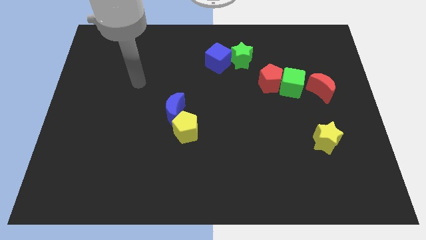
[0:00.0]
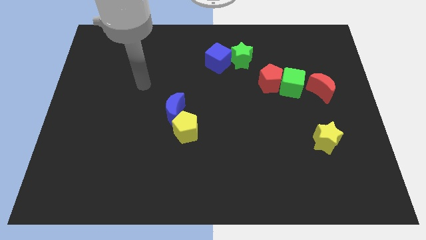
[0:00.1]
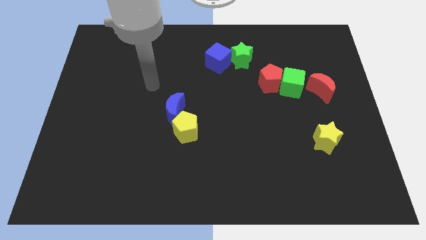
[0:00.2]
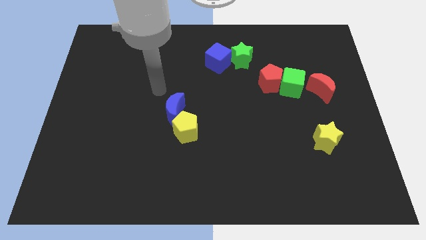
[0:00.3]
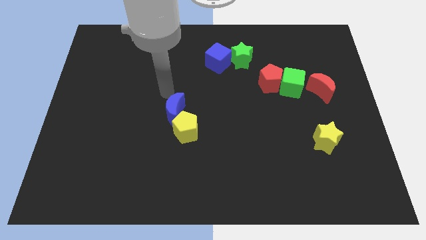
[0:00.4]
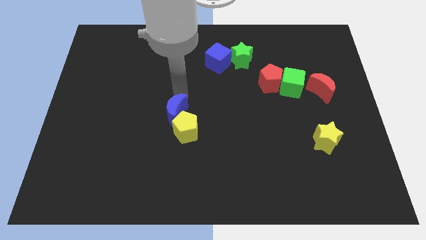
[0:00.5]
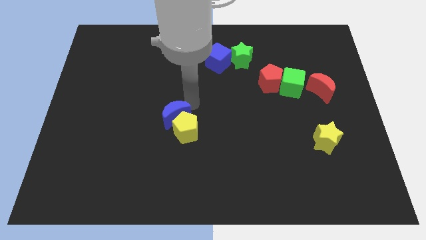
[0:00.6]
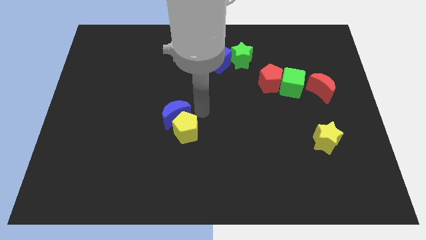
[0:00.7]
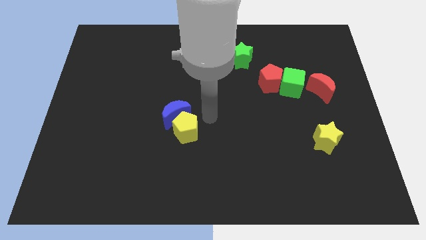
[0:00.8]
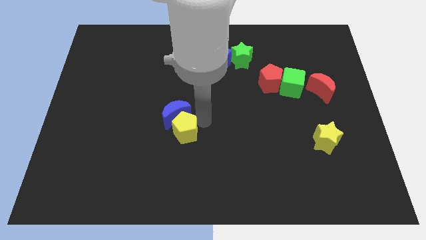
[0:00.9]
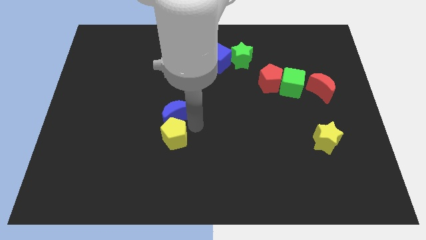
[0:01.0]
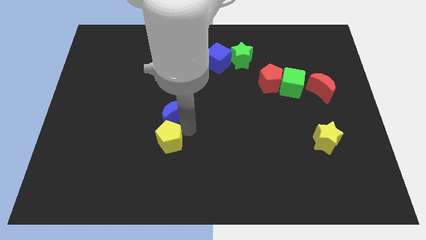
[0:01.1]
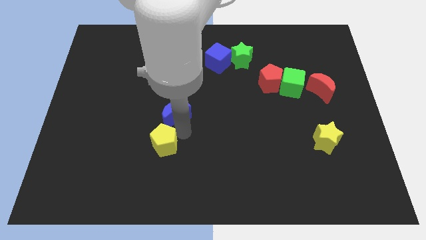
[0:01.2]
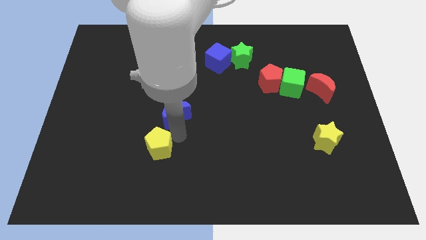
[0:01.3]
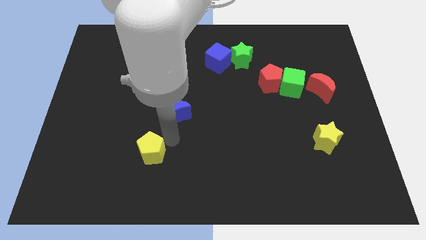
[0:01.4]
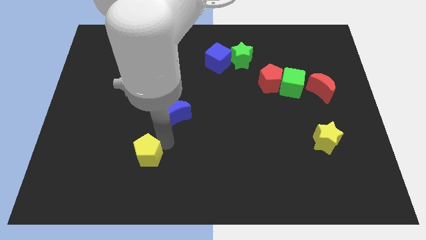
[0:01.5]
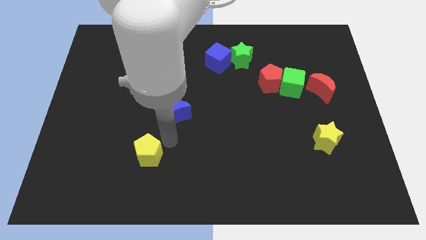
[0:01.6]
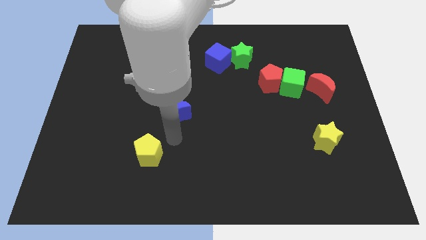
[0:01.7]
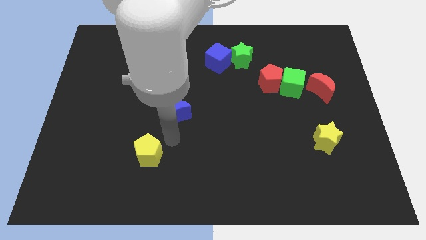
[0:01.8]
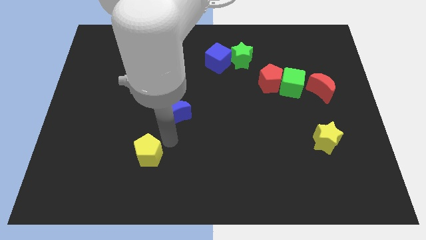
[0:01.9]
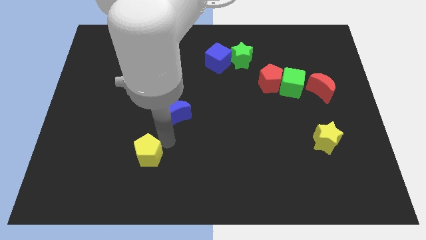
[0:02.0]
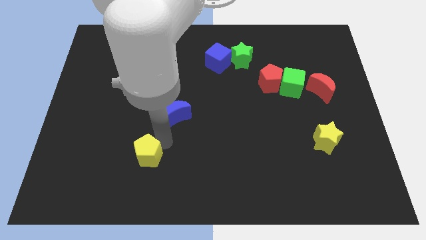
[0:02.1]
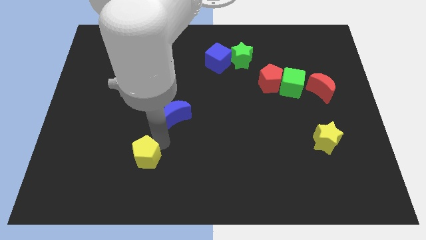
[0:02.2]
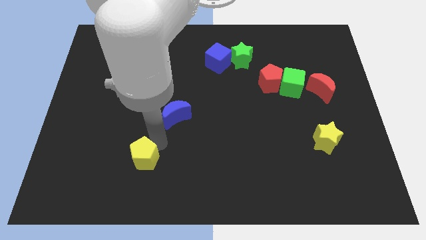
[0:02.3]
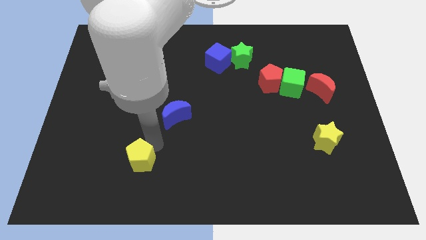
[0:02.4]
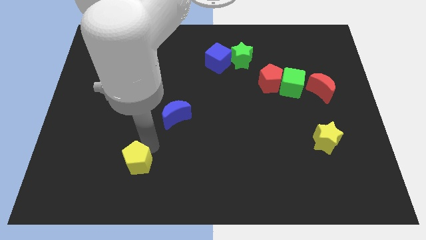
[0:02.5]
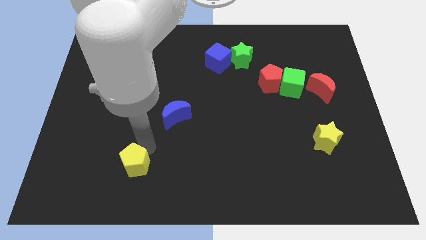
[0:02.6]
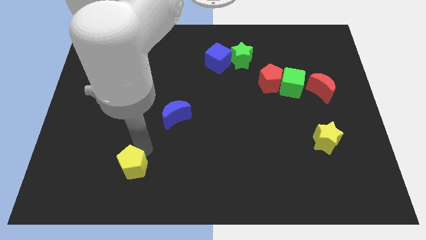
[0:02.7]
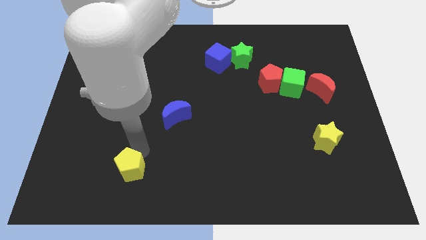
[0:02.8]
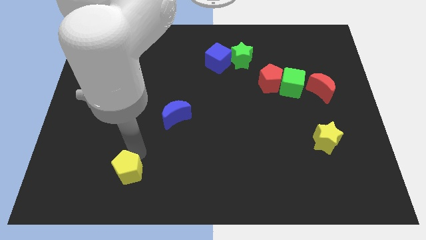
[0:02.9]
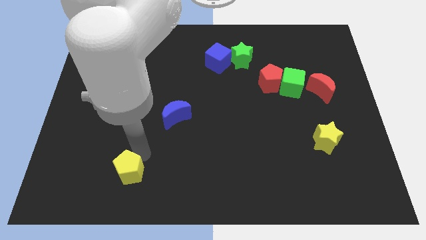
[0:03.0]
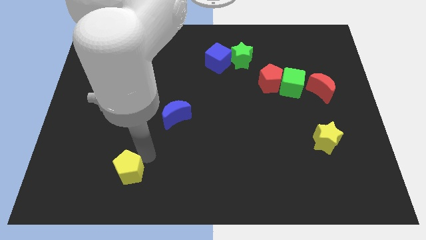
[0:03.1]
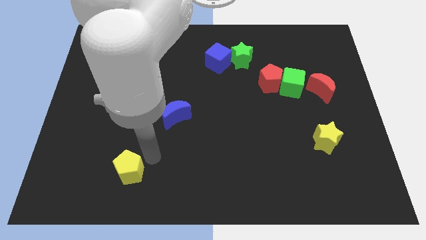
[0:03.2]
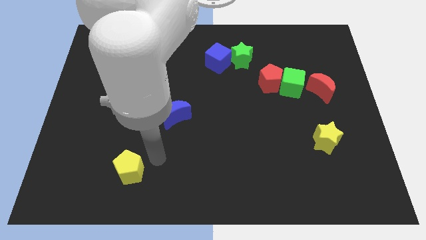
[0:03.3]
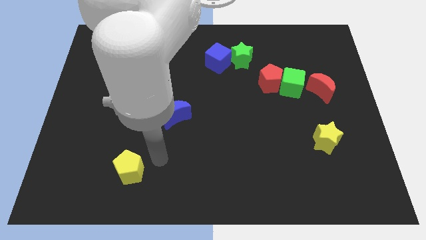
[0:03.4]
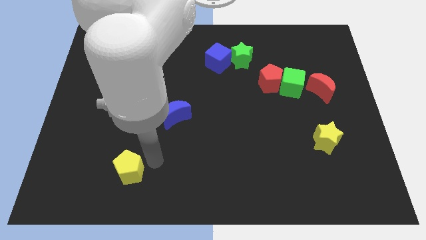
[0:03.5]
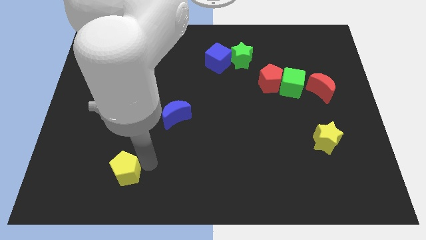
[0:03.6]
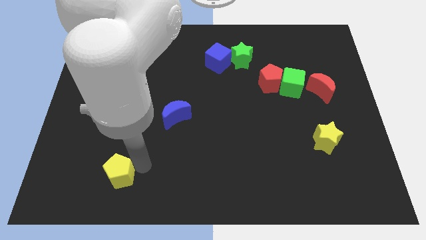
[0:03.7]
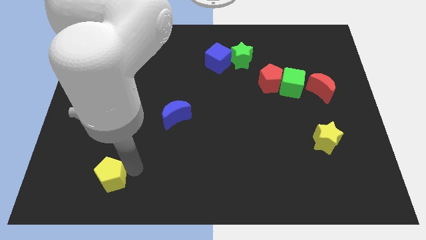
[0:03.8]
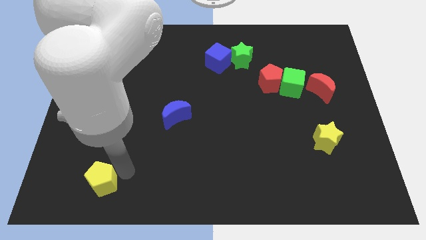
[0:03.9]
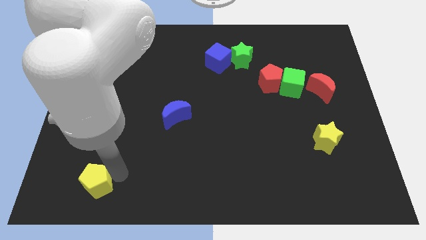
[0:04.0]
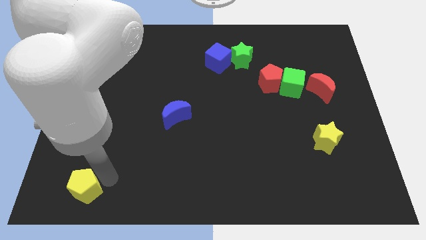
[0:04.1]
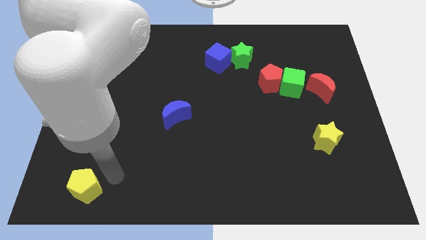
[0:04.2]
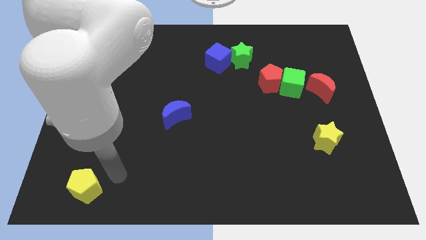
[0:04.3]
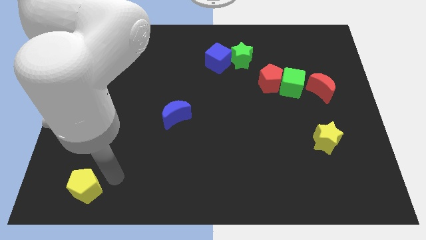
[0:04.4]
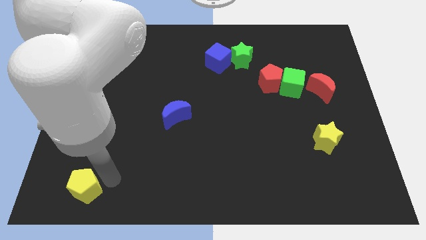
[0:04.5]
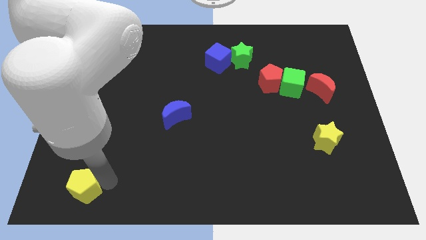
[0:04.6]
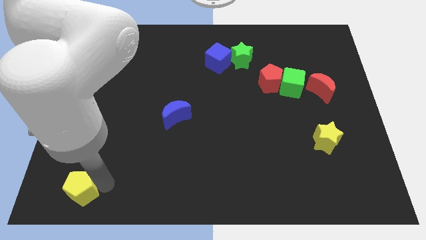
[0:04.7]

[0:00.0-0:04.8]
move the yellow pentagon to the bottom left

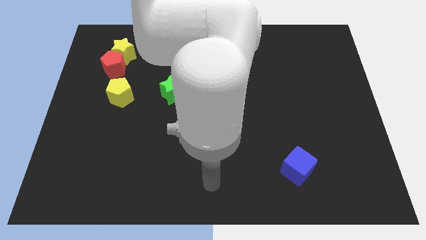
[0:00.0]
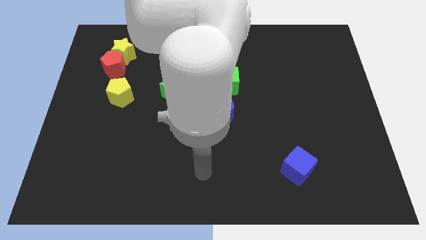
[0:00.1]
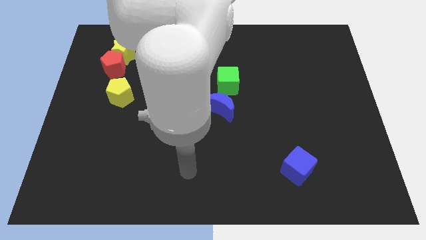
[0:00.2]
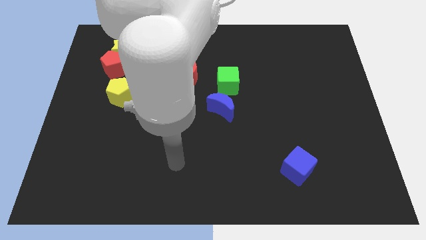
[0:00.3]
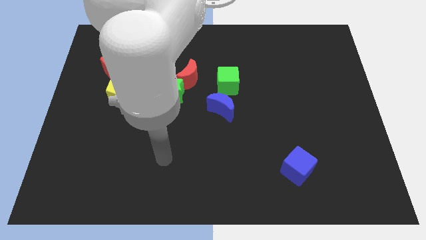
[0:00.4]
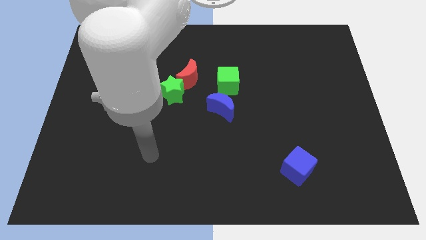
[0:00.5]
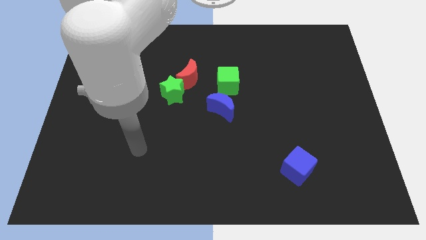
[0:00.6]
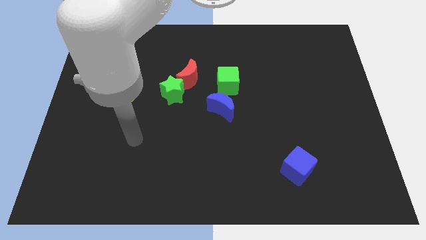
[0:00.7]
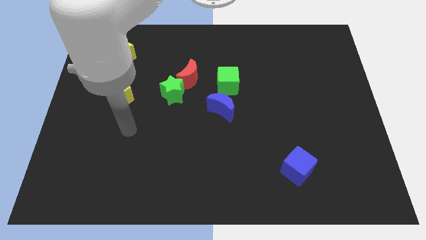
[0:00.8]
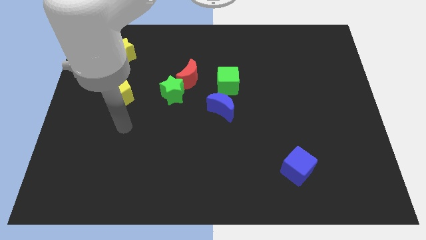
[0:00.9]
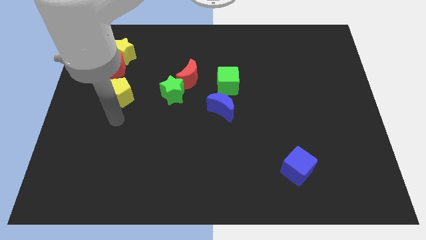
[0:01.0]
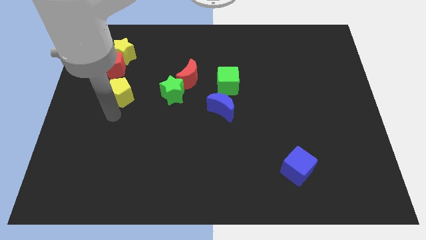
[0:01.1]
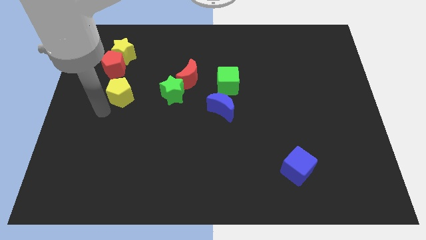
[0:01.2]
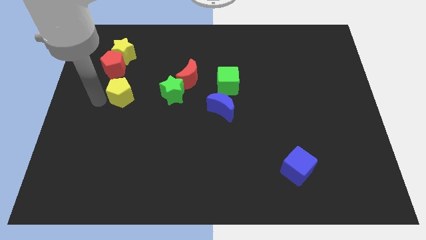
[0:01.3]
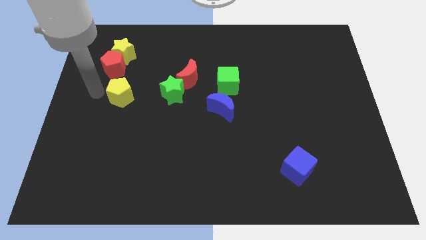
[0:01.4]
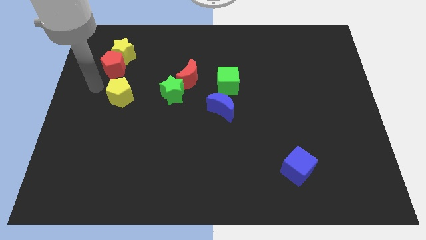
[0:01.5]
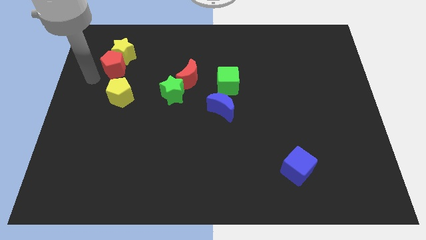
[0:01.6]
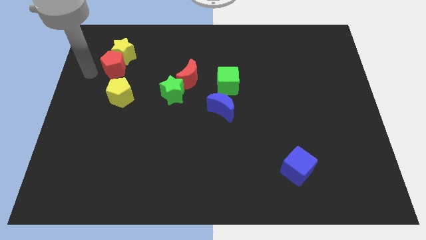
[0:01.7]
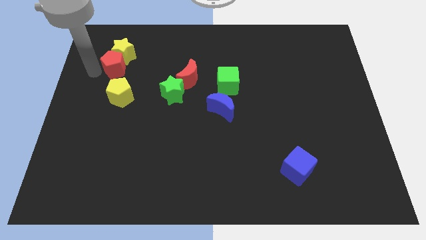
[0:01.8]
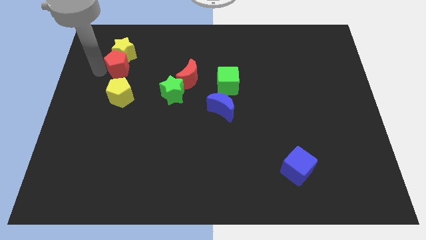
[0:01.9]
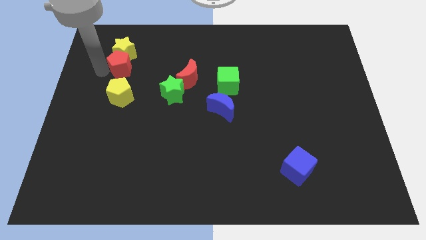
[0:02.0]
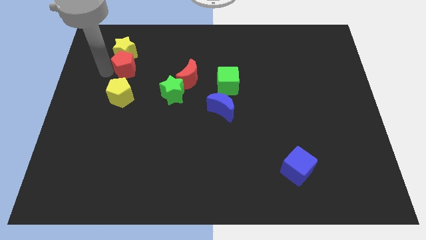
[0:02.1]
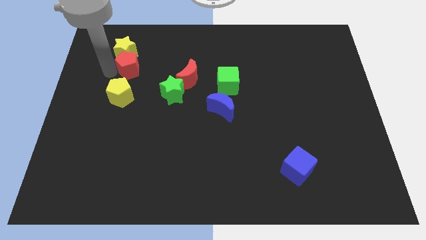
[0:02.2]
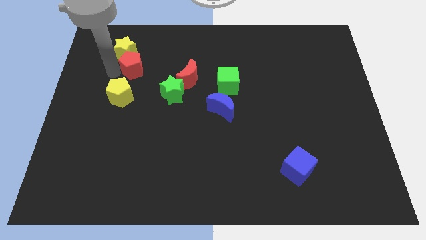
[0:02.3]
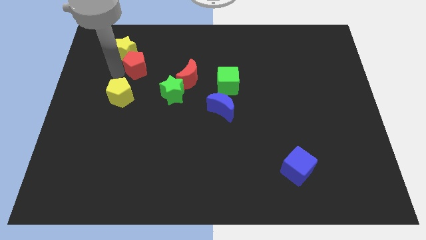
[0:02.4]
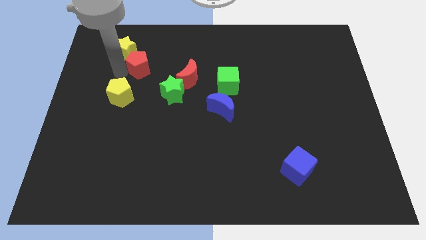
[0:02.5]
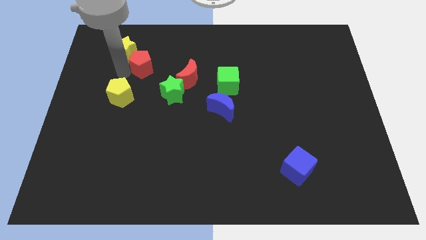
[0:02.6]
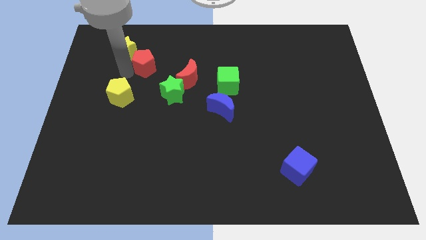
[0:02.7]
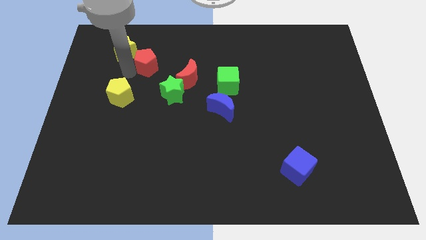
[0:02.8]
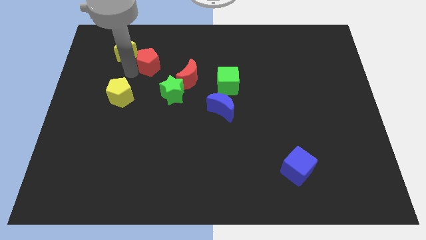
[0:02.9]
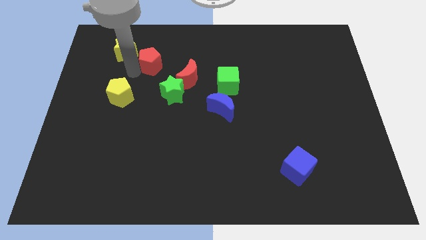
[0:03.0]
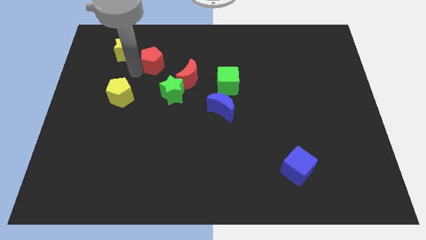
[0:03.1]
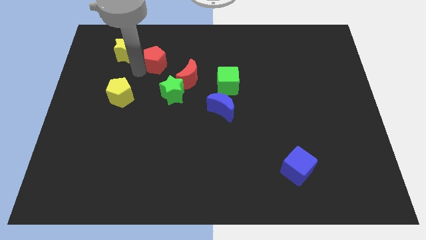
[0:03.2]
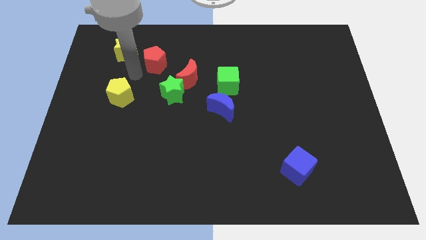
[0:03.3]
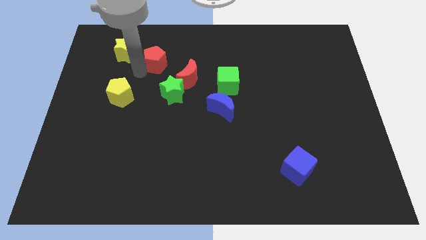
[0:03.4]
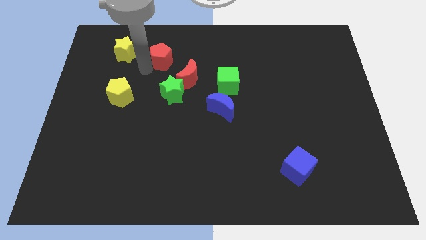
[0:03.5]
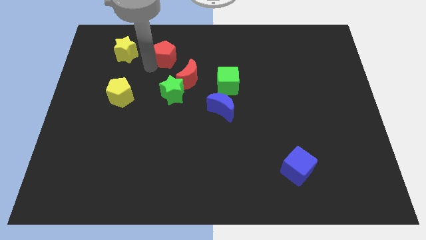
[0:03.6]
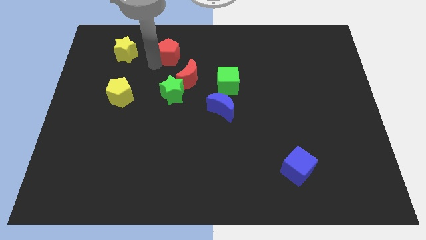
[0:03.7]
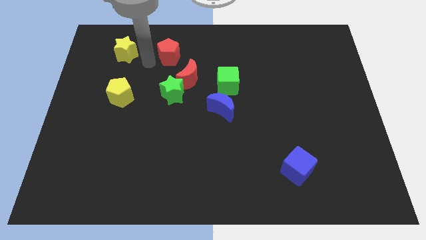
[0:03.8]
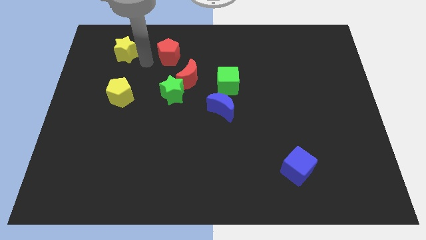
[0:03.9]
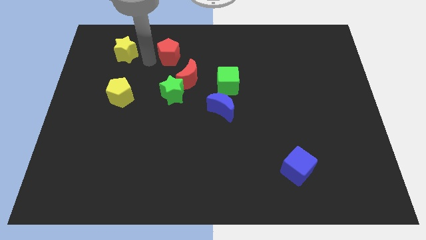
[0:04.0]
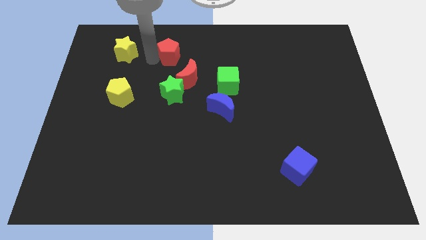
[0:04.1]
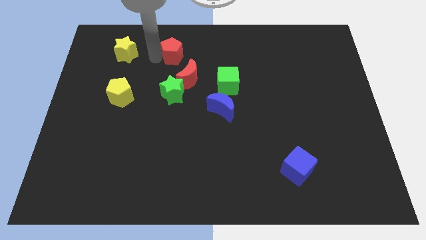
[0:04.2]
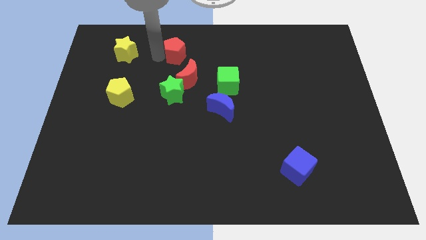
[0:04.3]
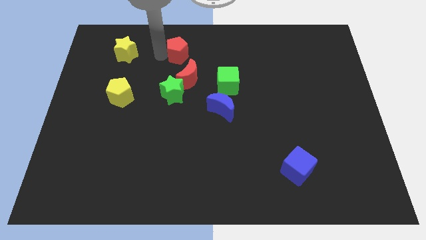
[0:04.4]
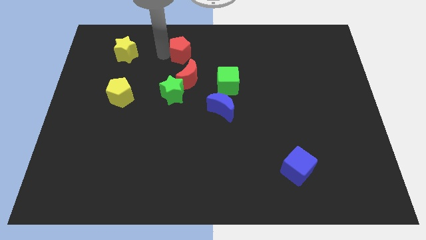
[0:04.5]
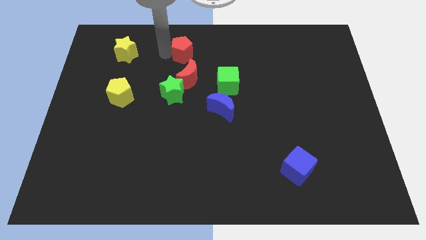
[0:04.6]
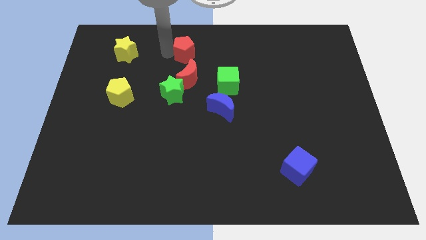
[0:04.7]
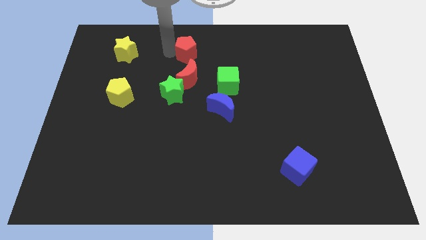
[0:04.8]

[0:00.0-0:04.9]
put the red pentagon to the top side
